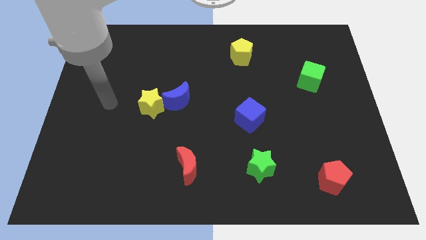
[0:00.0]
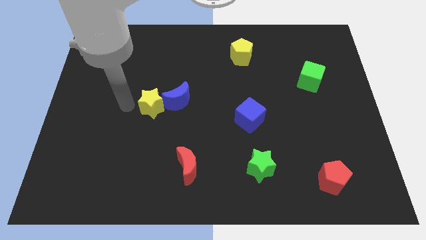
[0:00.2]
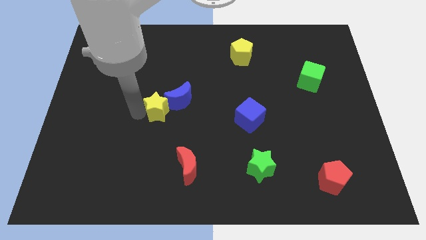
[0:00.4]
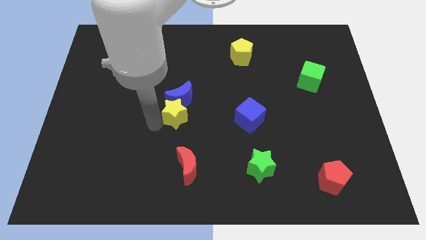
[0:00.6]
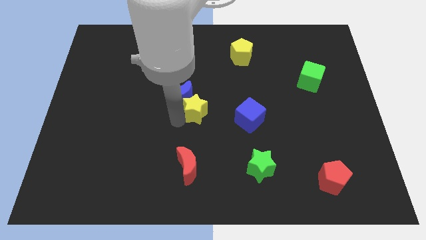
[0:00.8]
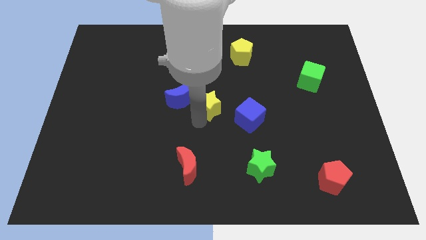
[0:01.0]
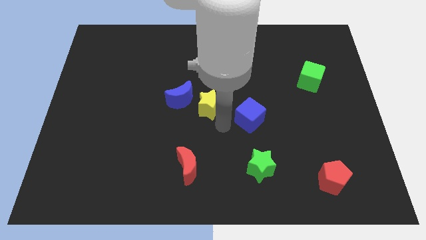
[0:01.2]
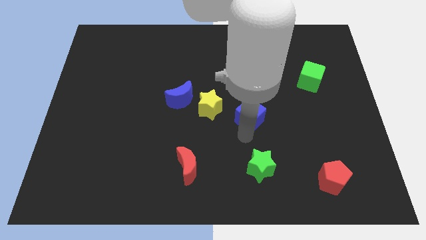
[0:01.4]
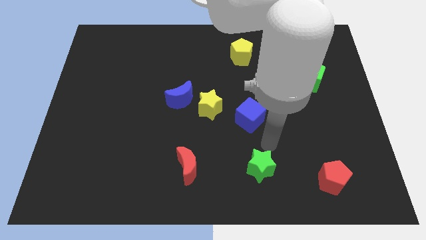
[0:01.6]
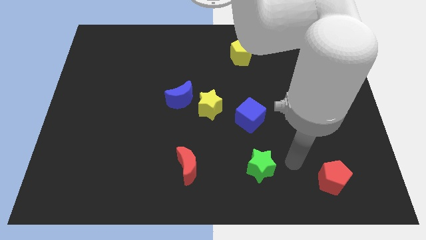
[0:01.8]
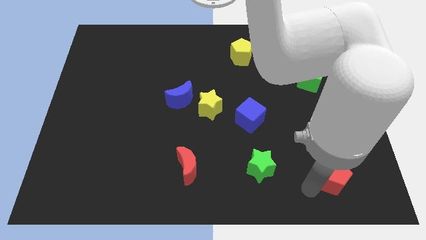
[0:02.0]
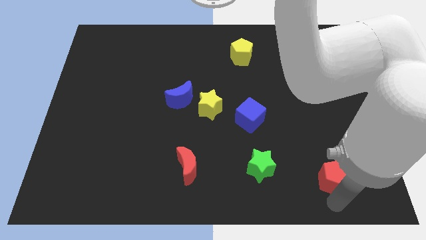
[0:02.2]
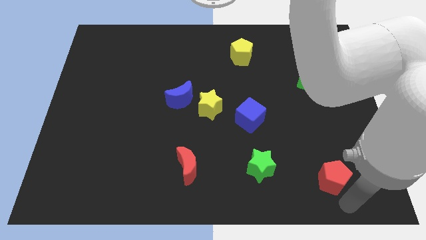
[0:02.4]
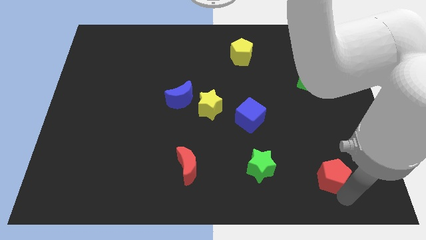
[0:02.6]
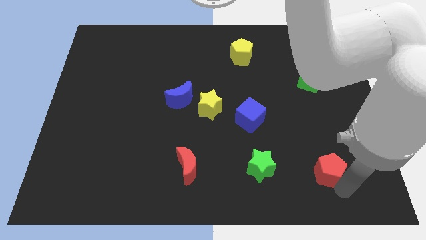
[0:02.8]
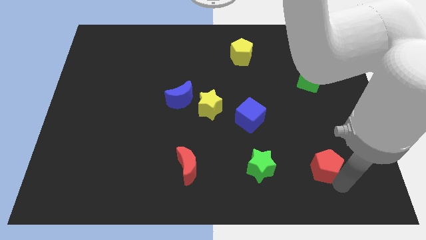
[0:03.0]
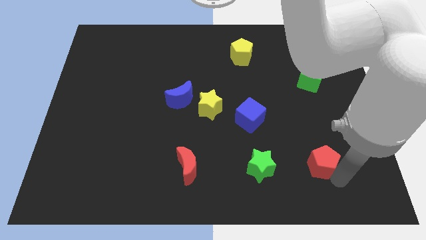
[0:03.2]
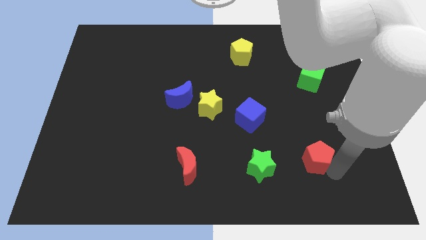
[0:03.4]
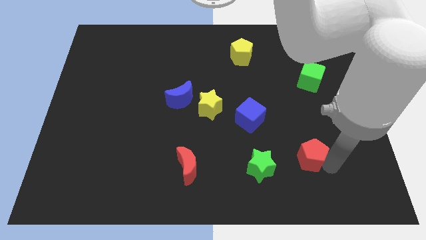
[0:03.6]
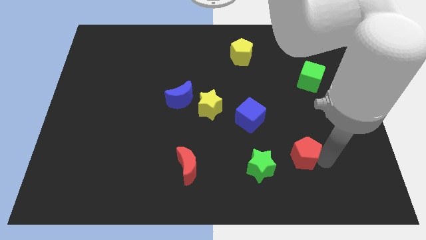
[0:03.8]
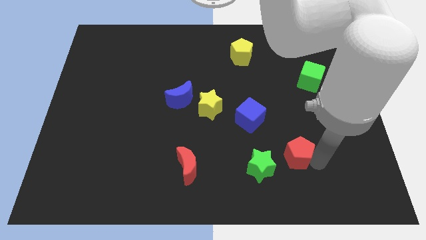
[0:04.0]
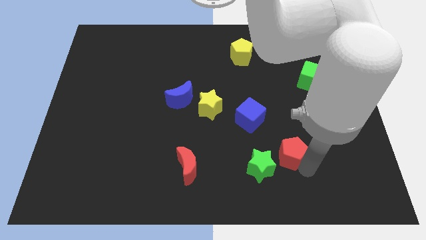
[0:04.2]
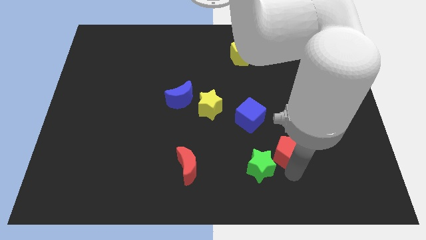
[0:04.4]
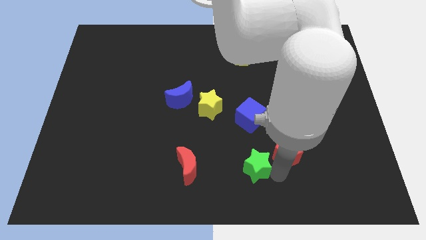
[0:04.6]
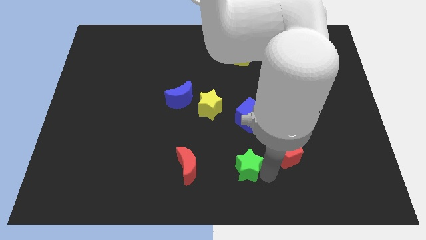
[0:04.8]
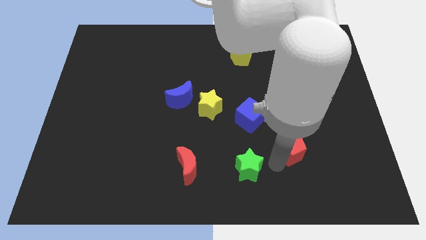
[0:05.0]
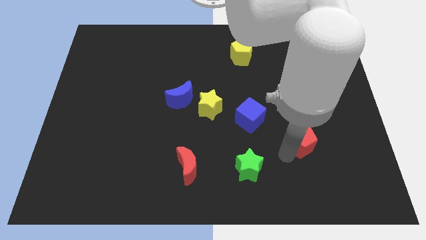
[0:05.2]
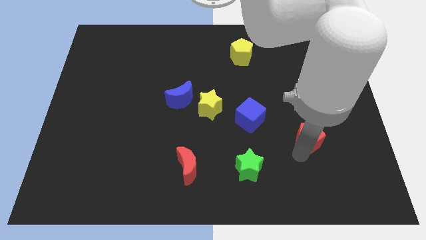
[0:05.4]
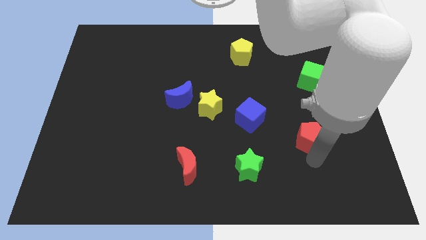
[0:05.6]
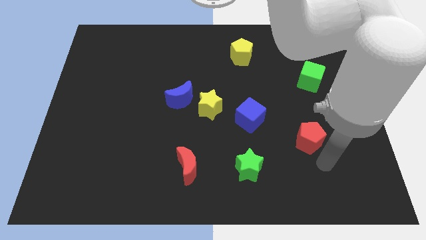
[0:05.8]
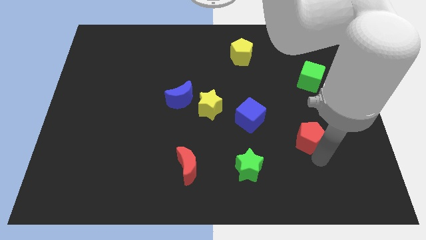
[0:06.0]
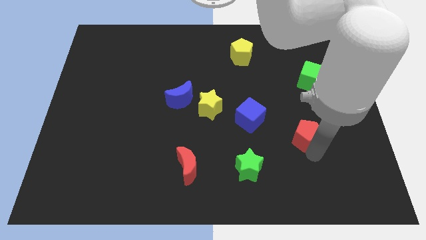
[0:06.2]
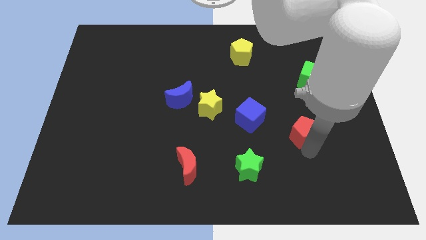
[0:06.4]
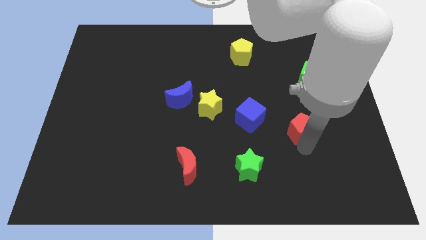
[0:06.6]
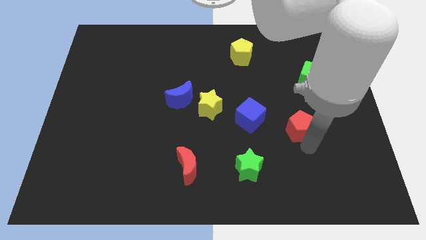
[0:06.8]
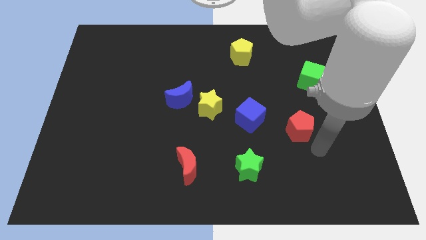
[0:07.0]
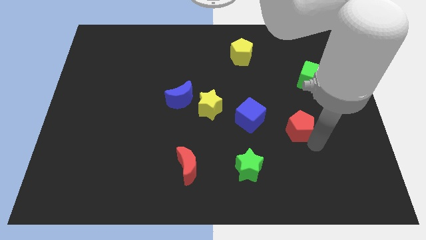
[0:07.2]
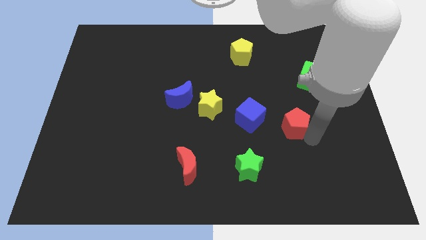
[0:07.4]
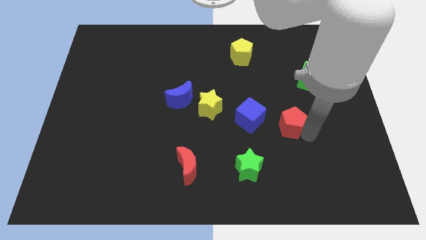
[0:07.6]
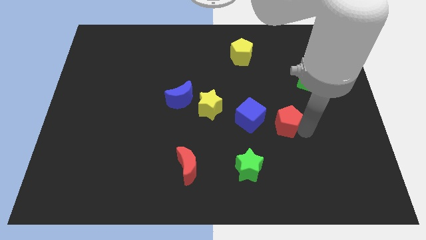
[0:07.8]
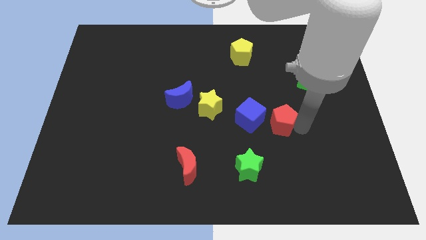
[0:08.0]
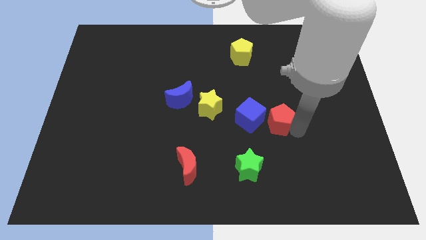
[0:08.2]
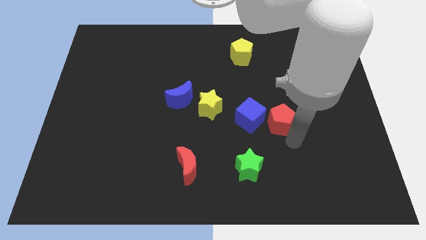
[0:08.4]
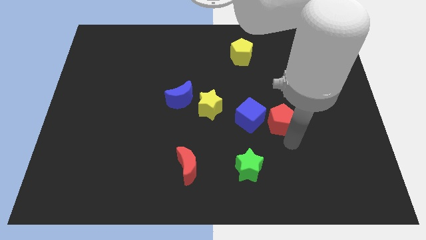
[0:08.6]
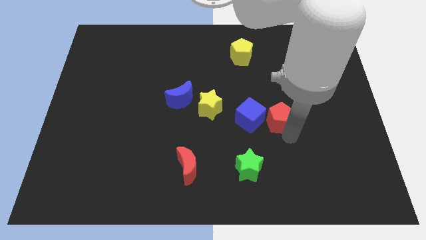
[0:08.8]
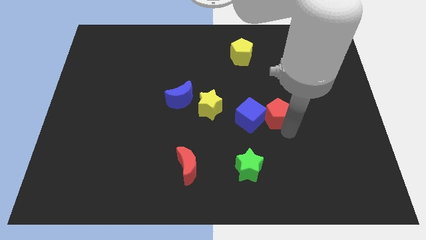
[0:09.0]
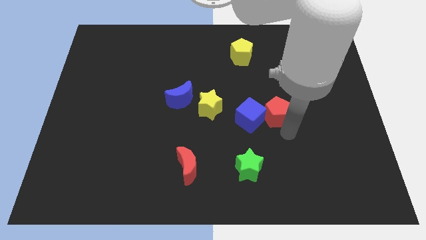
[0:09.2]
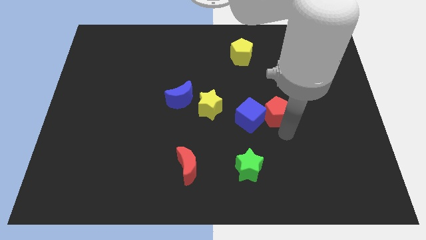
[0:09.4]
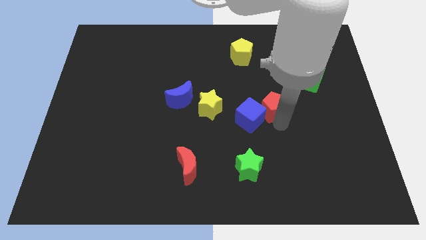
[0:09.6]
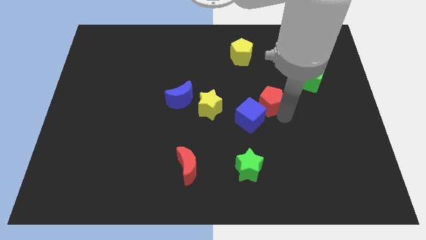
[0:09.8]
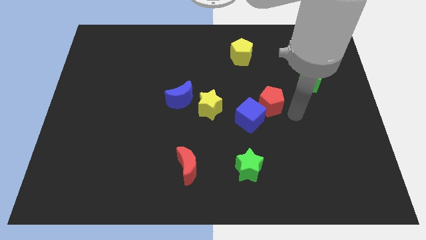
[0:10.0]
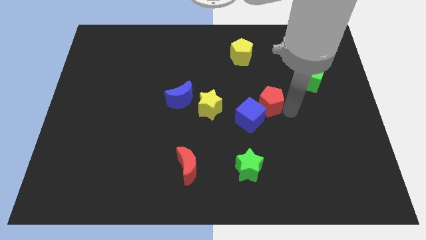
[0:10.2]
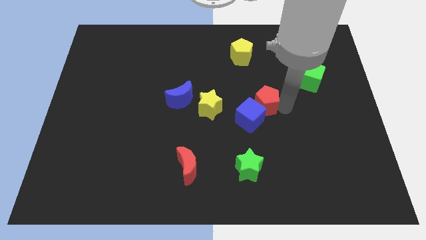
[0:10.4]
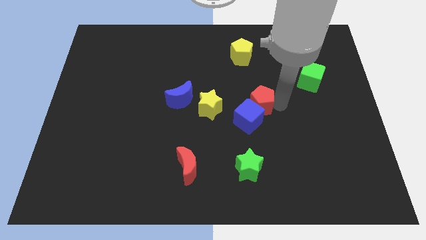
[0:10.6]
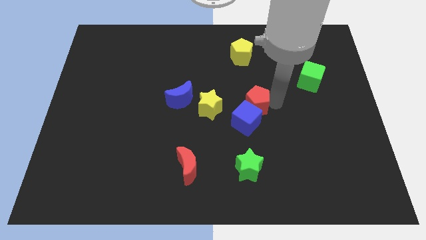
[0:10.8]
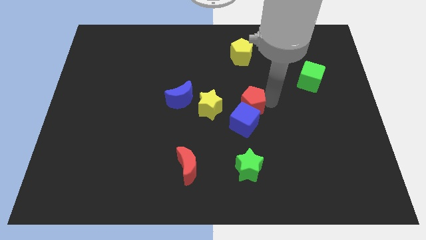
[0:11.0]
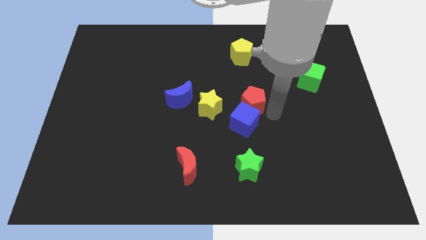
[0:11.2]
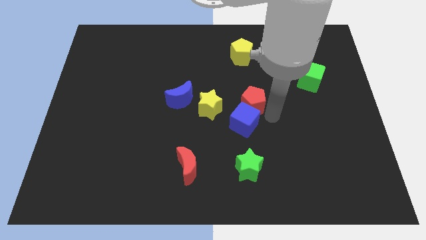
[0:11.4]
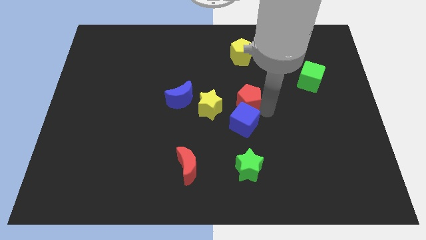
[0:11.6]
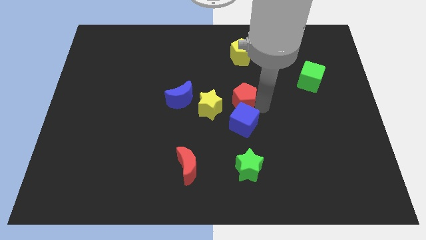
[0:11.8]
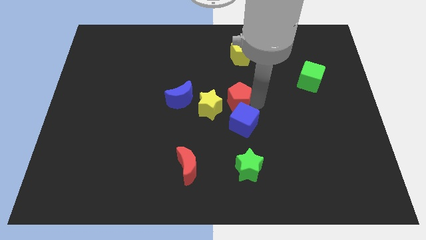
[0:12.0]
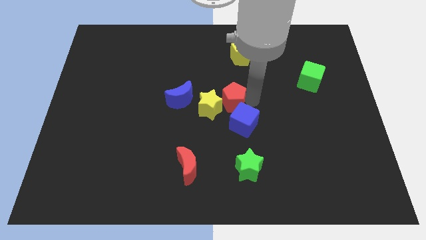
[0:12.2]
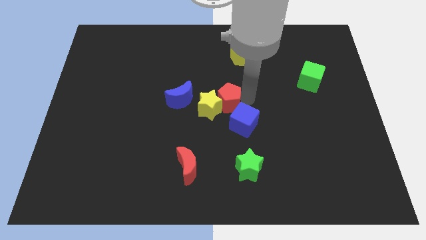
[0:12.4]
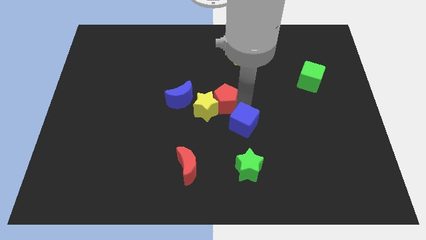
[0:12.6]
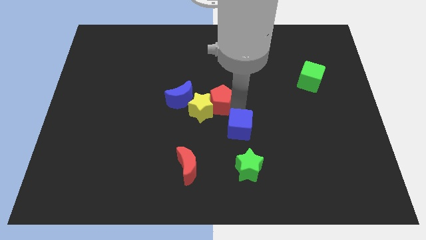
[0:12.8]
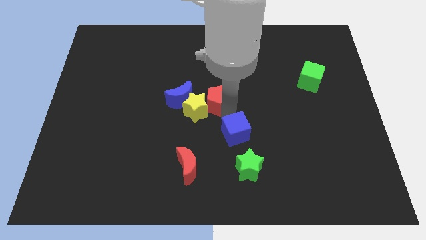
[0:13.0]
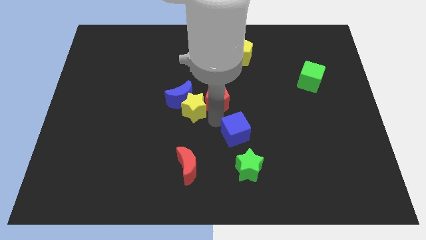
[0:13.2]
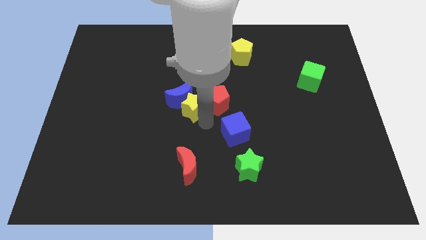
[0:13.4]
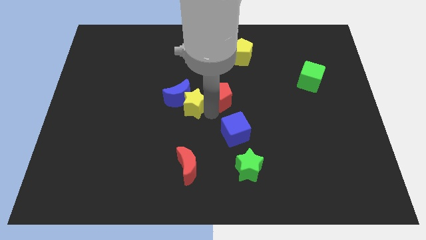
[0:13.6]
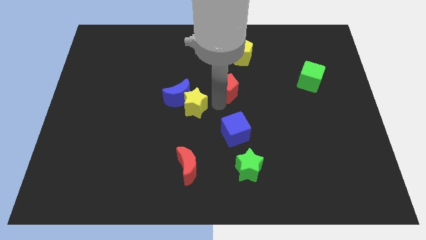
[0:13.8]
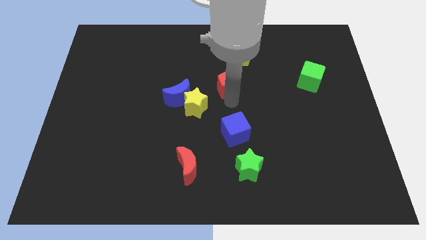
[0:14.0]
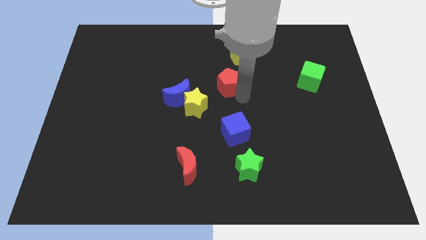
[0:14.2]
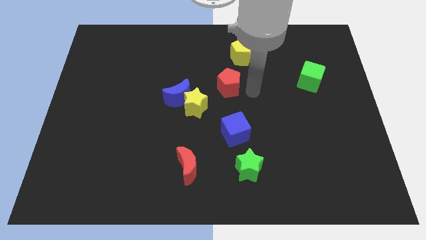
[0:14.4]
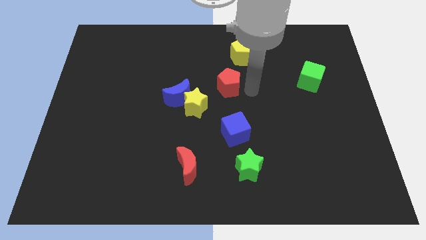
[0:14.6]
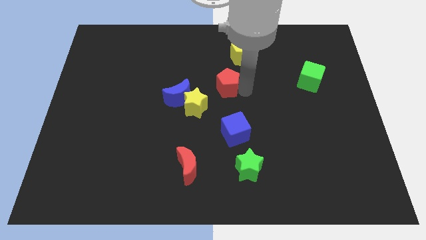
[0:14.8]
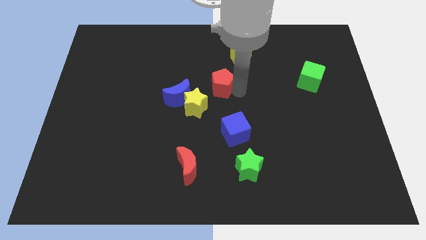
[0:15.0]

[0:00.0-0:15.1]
move the red pentagon to the top right side of the blue moon
